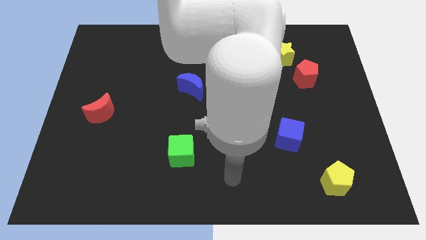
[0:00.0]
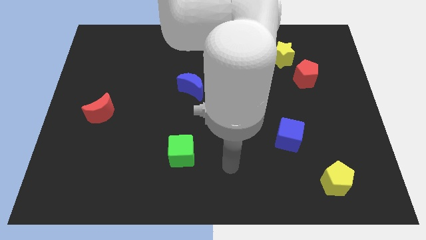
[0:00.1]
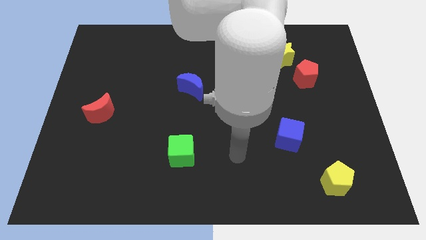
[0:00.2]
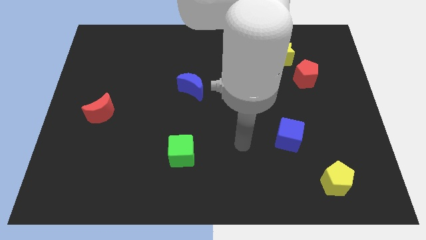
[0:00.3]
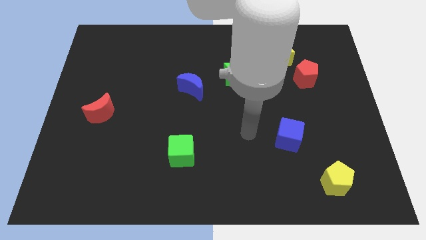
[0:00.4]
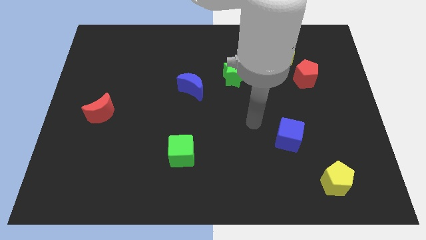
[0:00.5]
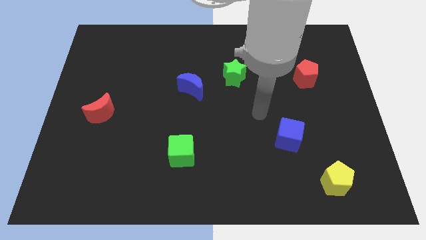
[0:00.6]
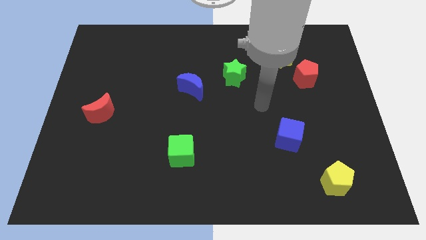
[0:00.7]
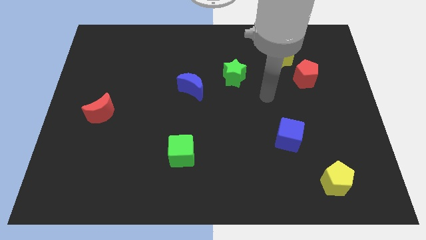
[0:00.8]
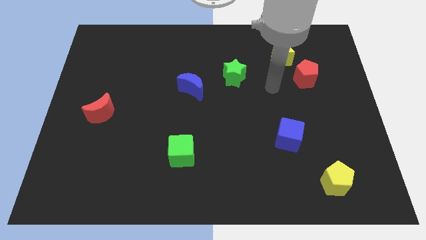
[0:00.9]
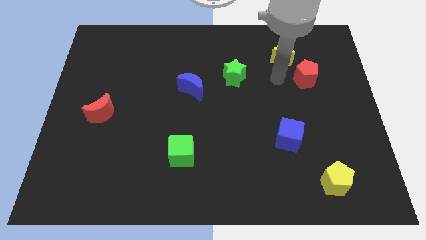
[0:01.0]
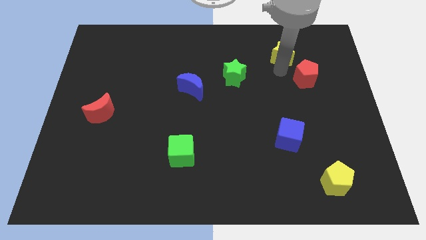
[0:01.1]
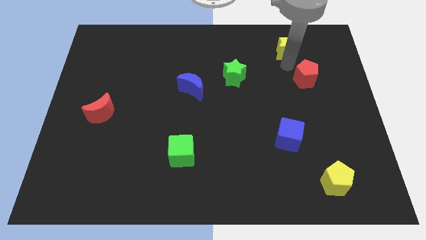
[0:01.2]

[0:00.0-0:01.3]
pull the red pentagon apart from the yellow star

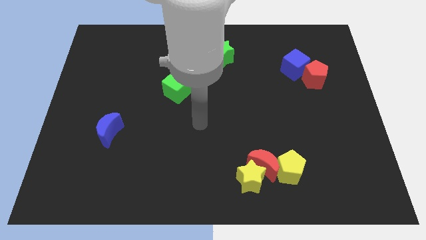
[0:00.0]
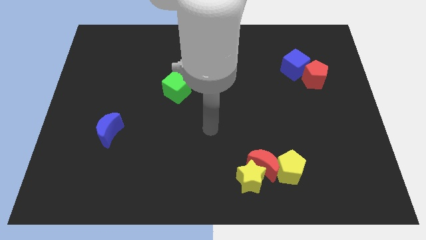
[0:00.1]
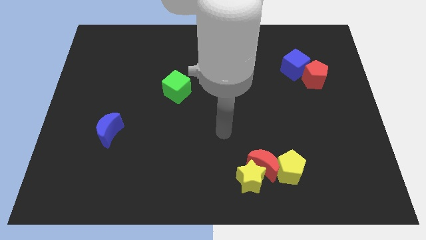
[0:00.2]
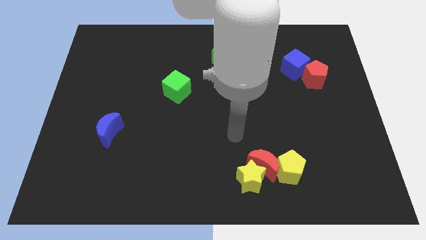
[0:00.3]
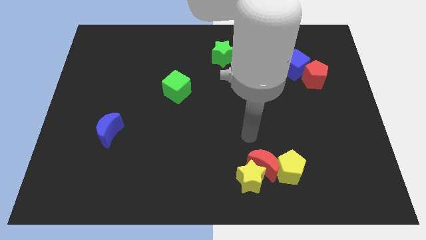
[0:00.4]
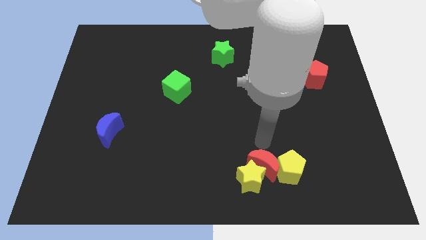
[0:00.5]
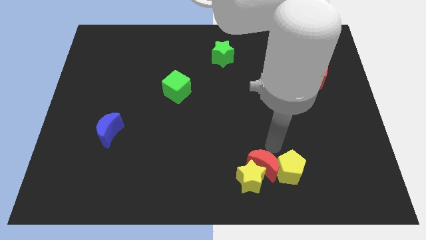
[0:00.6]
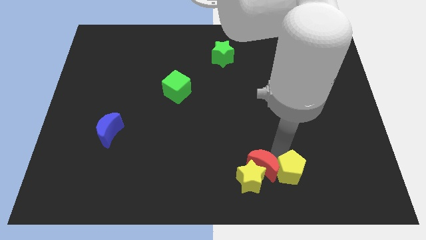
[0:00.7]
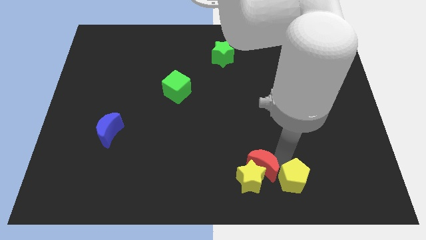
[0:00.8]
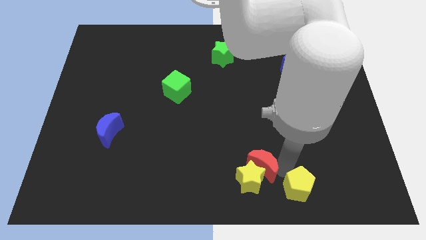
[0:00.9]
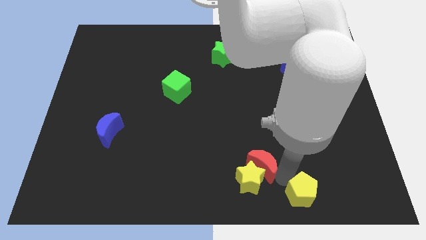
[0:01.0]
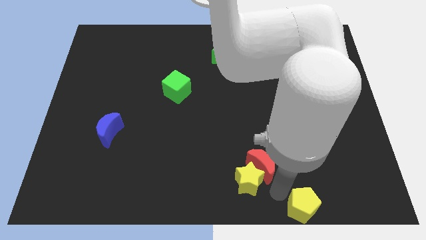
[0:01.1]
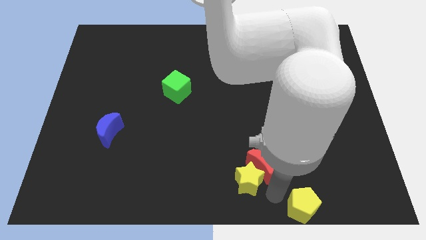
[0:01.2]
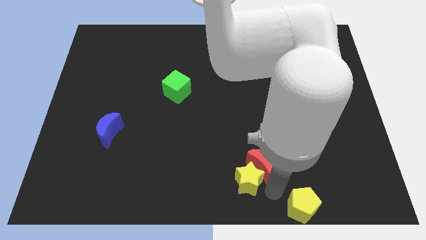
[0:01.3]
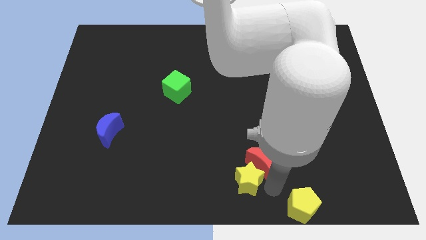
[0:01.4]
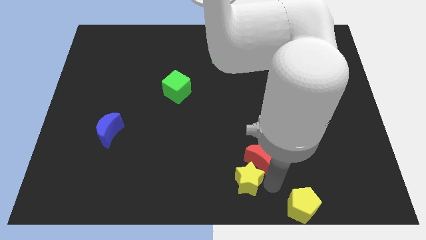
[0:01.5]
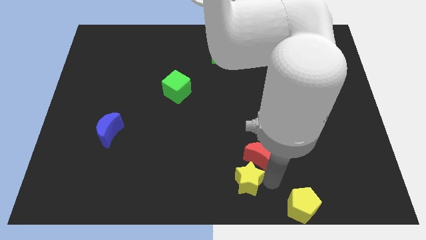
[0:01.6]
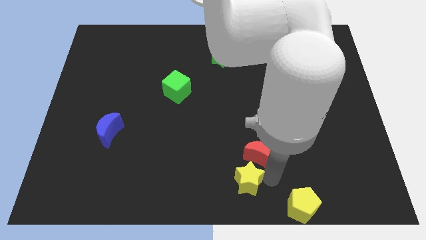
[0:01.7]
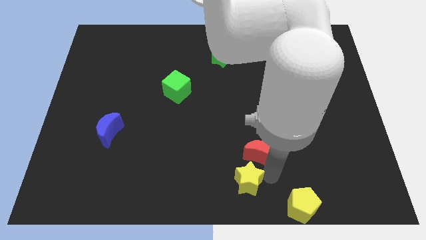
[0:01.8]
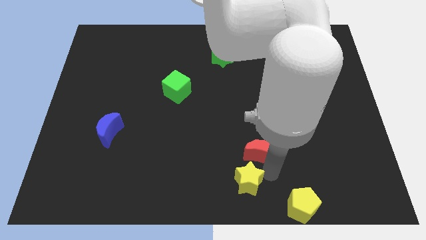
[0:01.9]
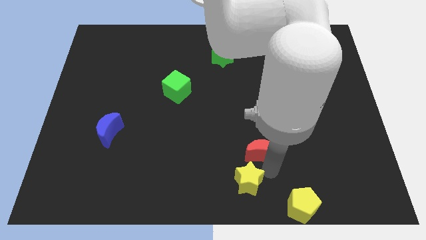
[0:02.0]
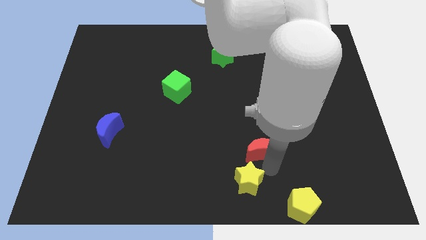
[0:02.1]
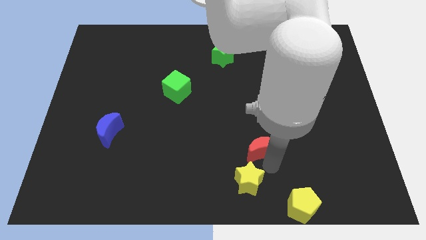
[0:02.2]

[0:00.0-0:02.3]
move the red moon away from the yellow star and yellow pentagon

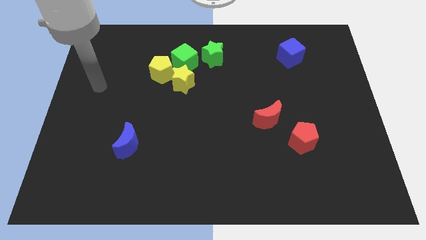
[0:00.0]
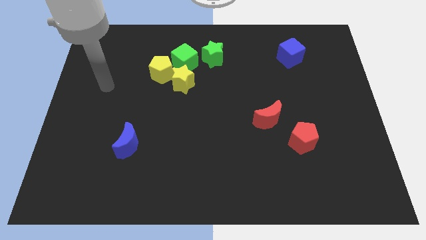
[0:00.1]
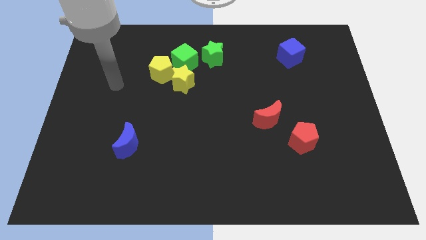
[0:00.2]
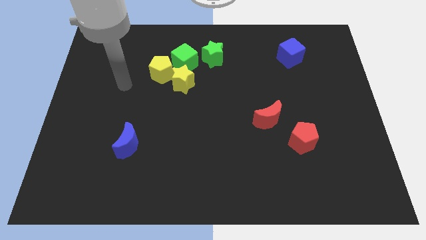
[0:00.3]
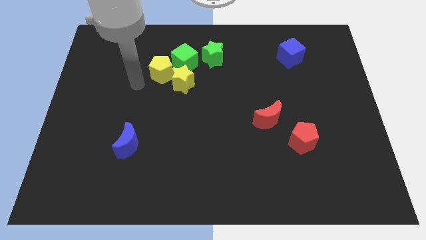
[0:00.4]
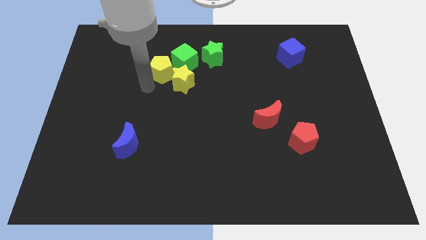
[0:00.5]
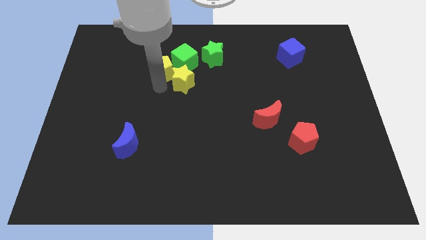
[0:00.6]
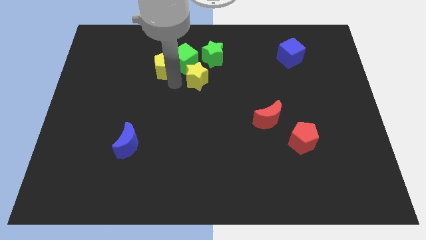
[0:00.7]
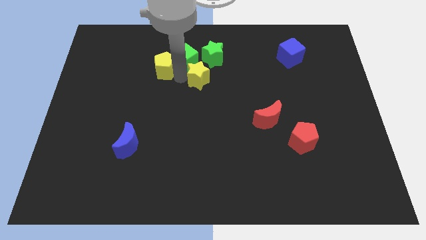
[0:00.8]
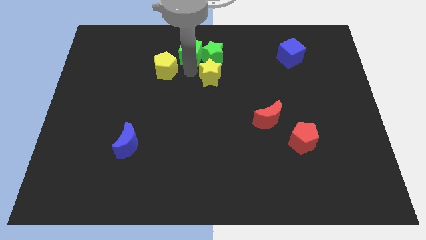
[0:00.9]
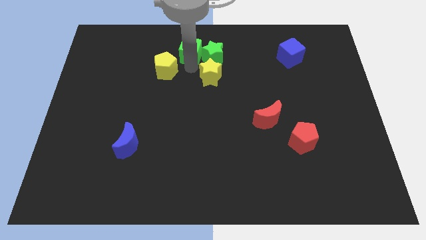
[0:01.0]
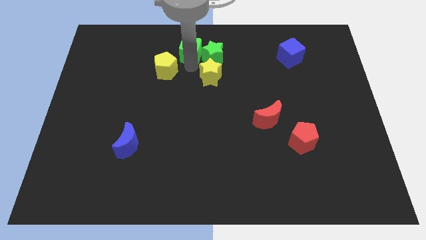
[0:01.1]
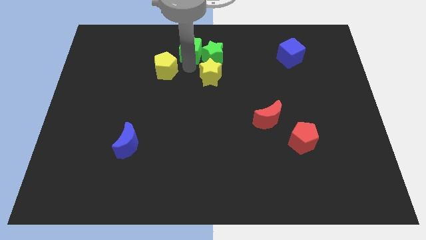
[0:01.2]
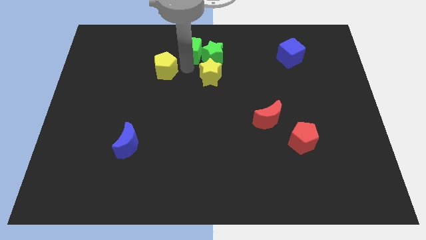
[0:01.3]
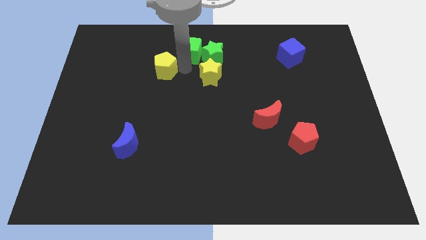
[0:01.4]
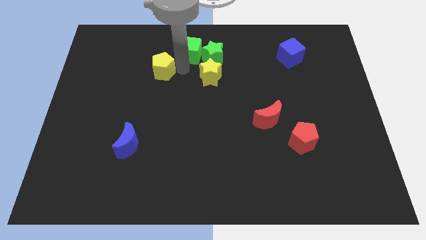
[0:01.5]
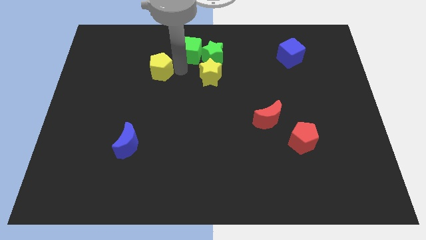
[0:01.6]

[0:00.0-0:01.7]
pull the yellow pentagon apart from the yellow star and green cube

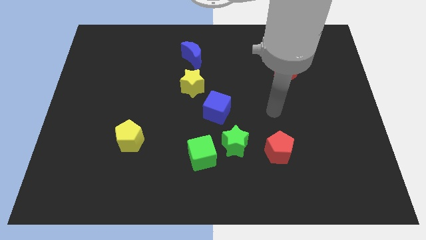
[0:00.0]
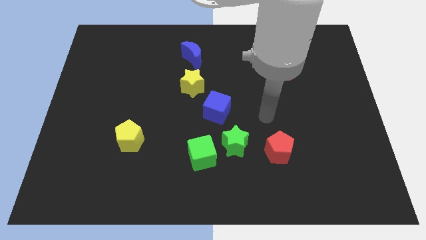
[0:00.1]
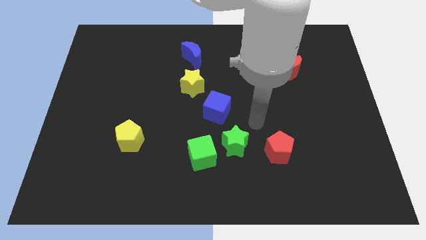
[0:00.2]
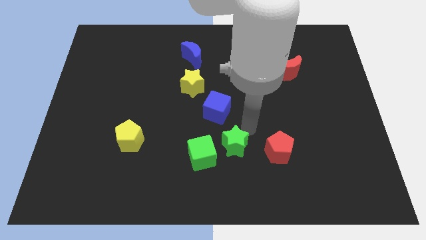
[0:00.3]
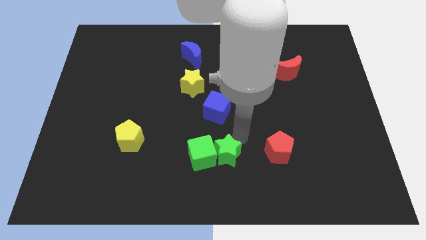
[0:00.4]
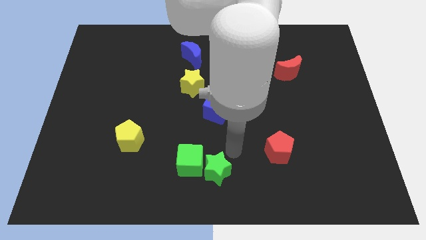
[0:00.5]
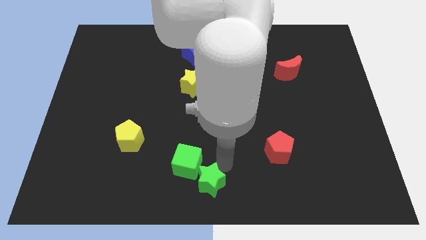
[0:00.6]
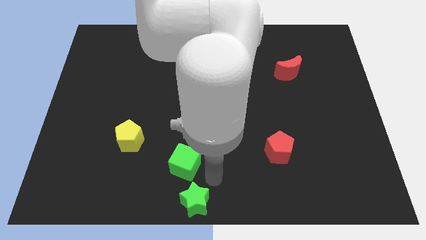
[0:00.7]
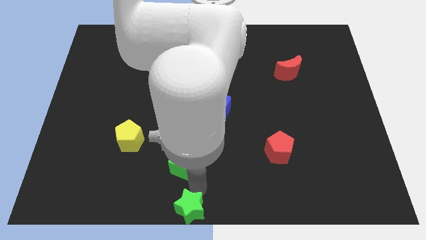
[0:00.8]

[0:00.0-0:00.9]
move the green cube away from the green star

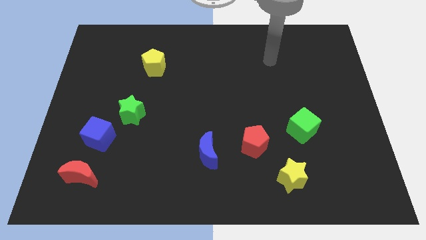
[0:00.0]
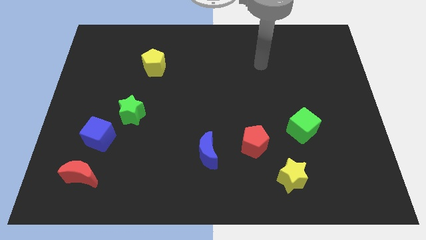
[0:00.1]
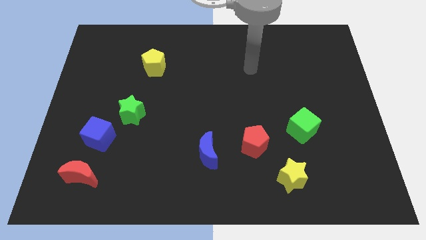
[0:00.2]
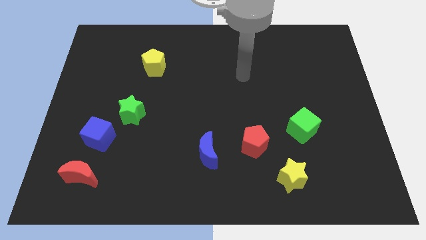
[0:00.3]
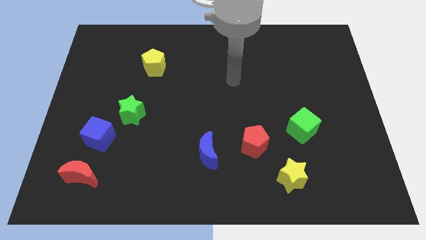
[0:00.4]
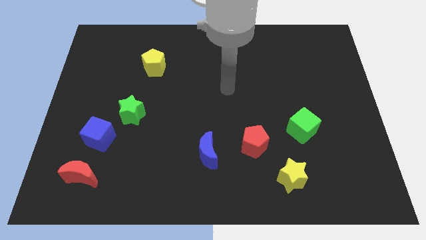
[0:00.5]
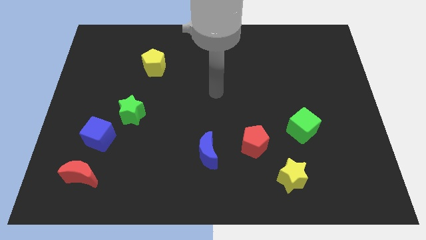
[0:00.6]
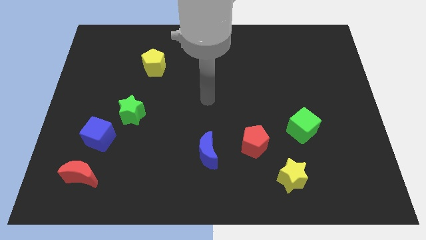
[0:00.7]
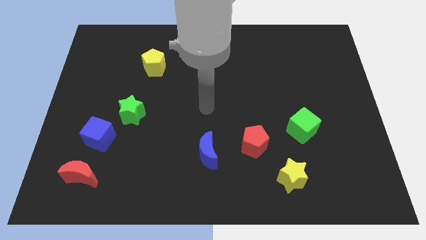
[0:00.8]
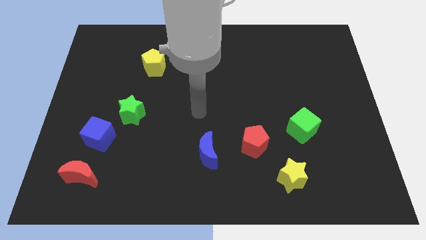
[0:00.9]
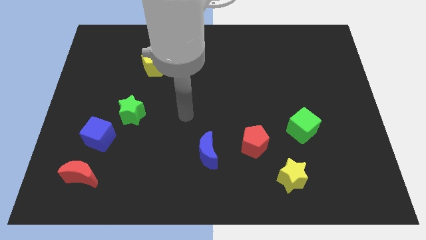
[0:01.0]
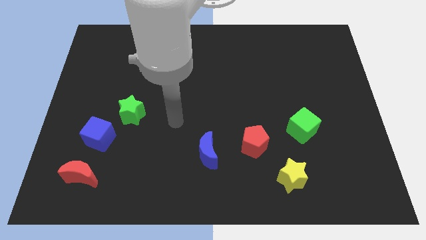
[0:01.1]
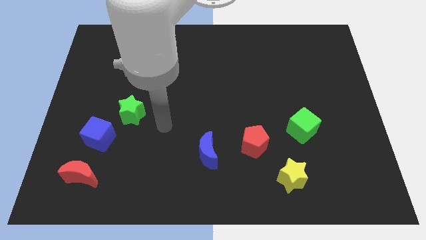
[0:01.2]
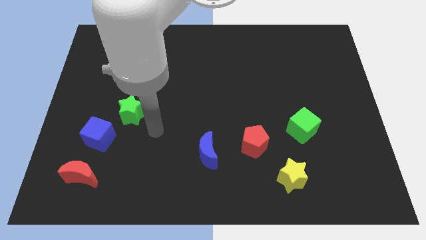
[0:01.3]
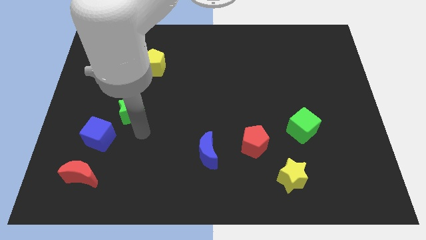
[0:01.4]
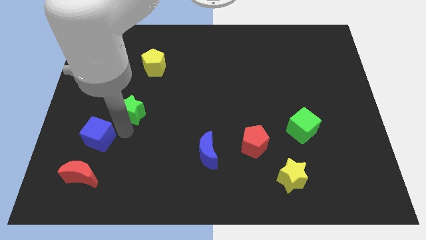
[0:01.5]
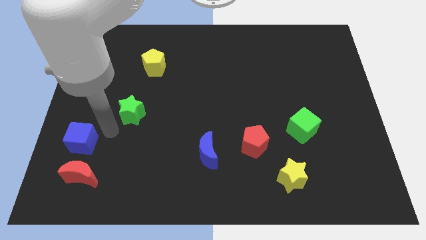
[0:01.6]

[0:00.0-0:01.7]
pull the green star apart from the blue cube

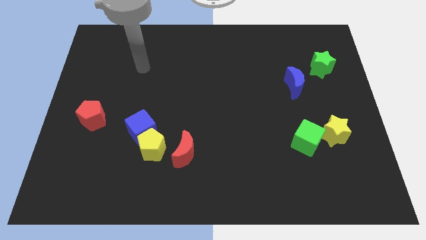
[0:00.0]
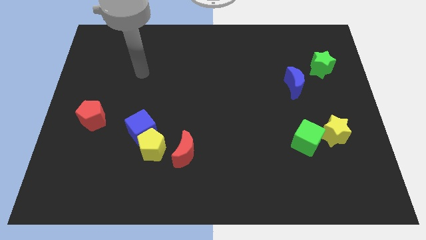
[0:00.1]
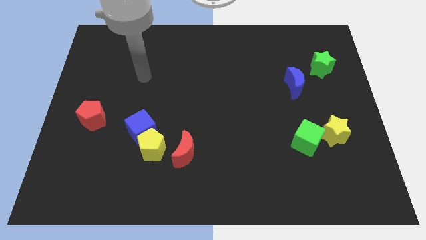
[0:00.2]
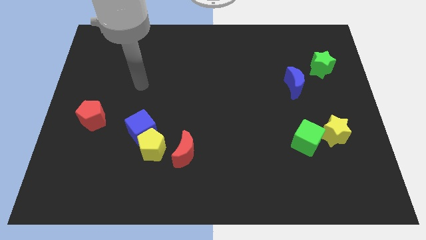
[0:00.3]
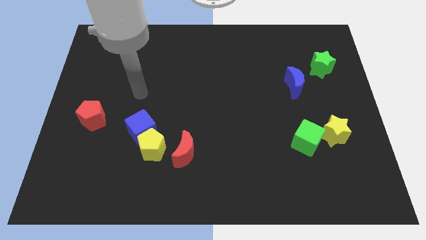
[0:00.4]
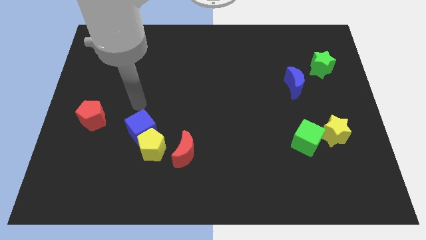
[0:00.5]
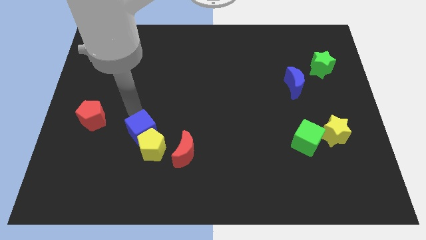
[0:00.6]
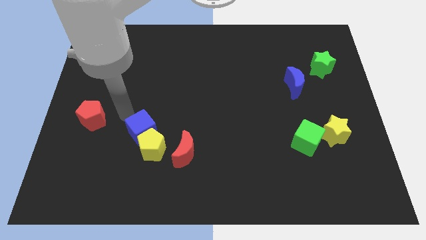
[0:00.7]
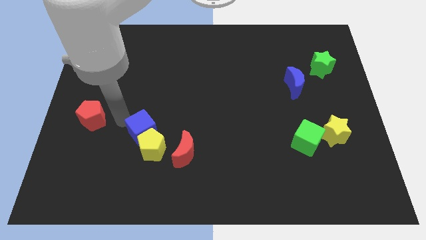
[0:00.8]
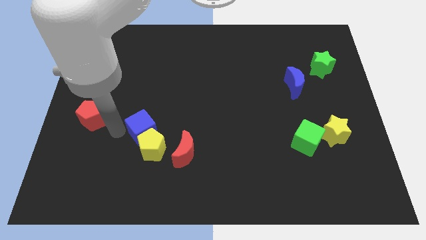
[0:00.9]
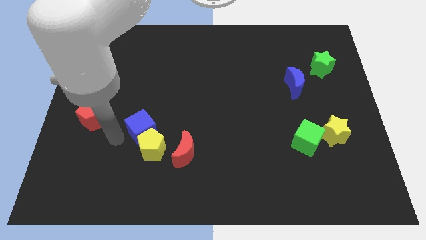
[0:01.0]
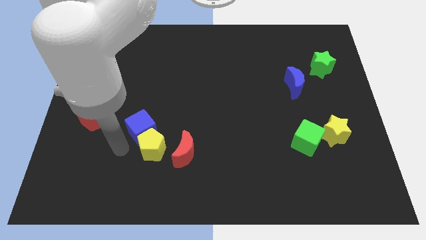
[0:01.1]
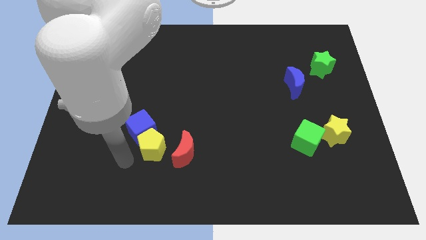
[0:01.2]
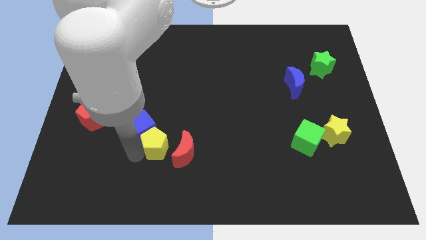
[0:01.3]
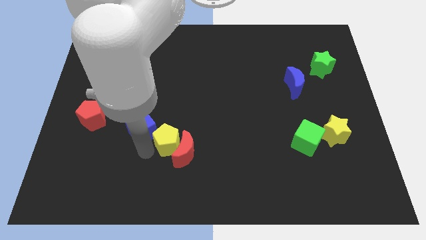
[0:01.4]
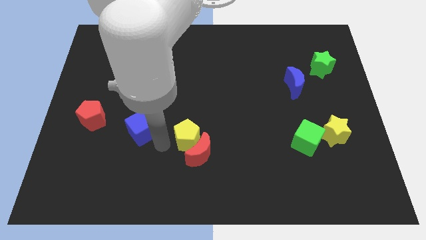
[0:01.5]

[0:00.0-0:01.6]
separate the blue cube from the yellow pentagon
